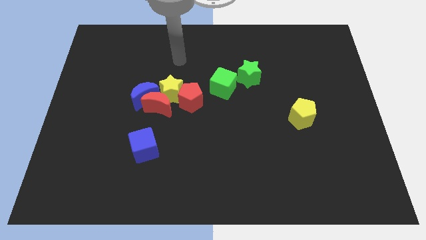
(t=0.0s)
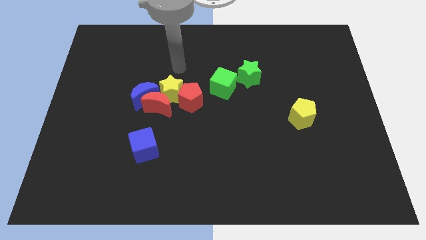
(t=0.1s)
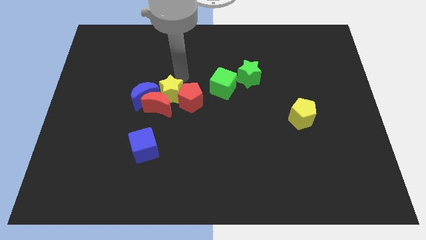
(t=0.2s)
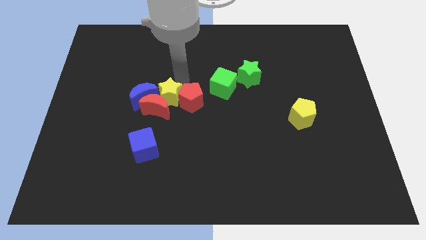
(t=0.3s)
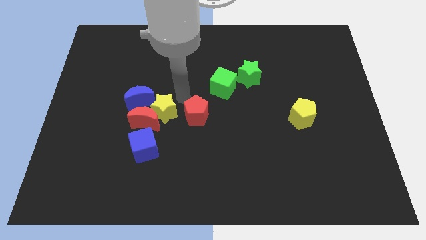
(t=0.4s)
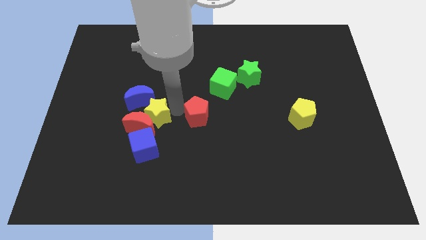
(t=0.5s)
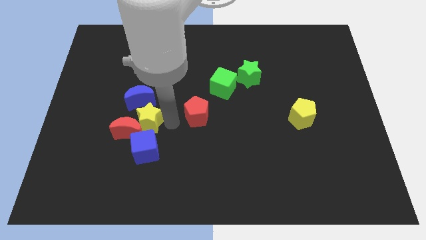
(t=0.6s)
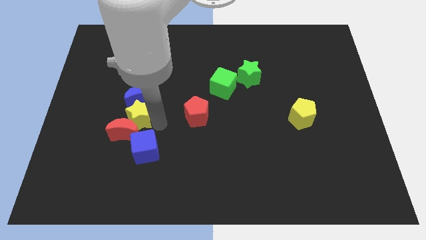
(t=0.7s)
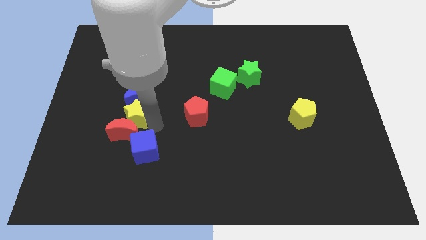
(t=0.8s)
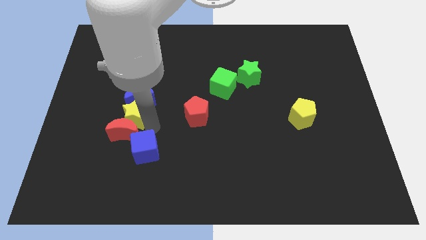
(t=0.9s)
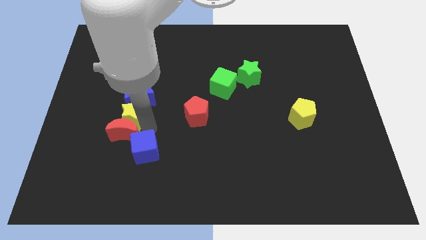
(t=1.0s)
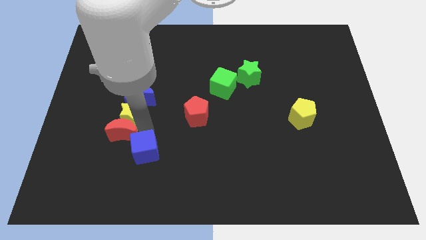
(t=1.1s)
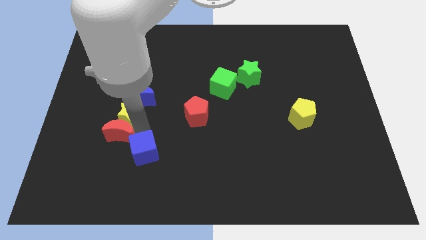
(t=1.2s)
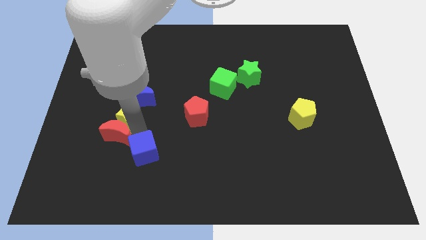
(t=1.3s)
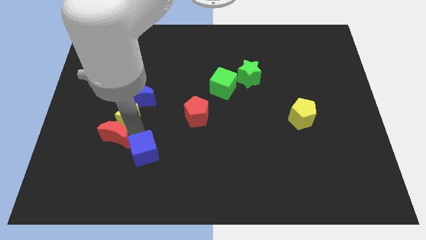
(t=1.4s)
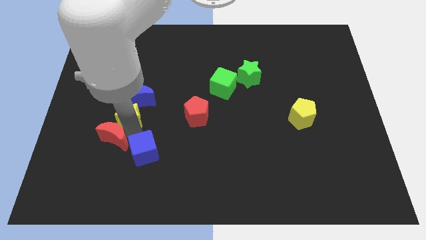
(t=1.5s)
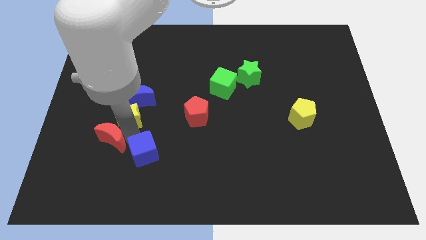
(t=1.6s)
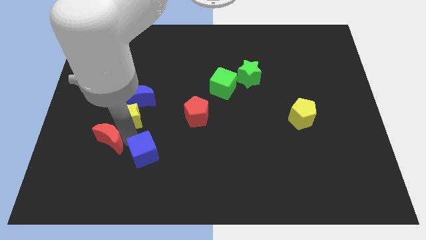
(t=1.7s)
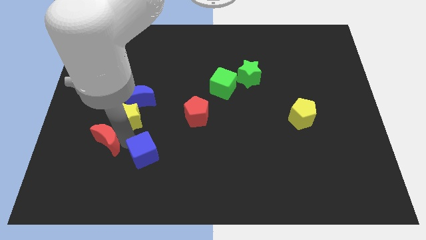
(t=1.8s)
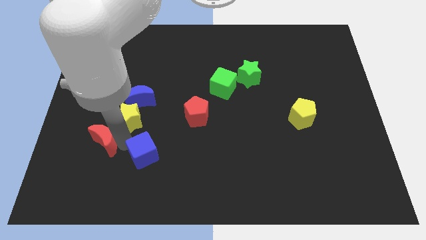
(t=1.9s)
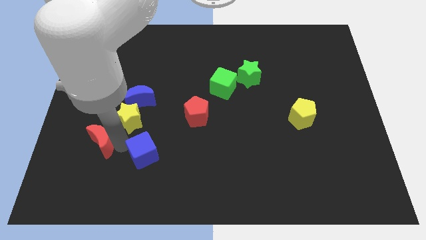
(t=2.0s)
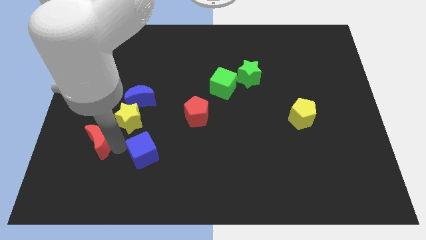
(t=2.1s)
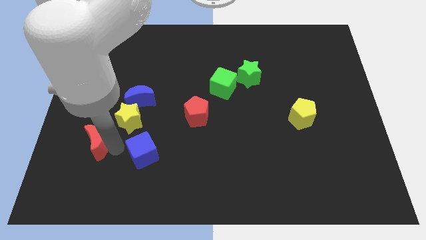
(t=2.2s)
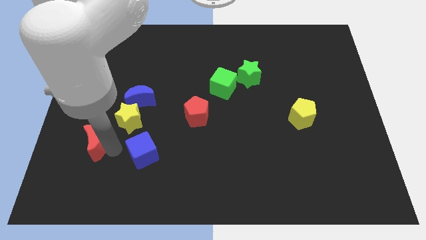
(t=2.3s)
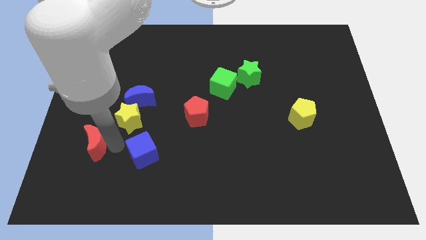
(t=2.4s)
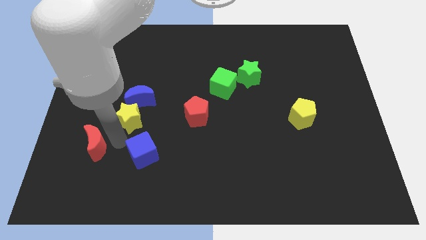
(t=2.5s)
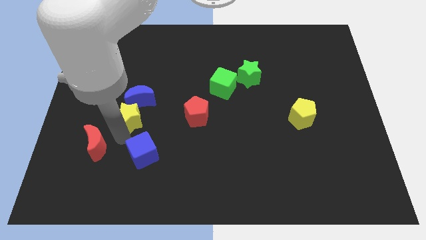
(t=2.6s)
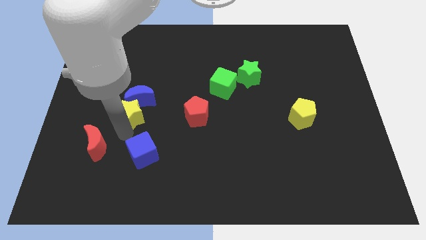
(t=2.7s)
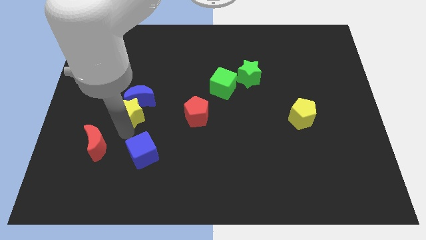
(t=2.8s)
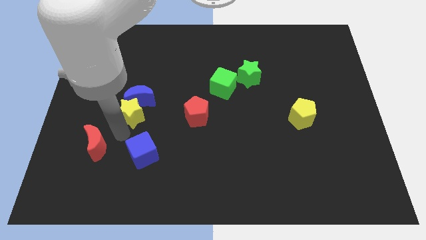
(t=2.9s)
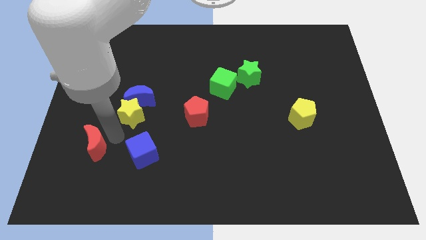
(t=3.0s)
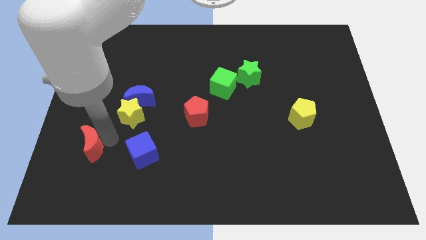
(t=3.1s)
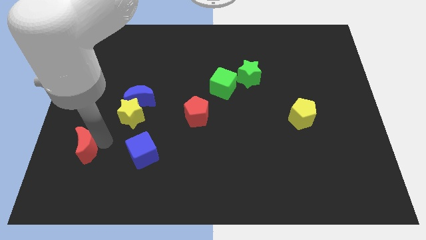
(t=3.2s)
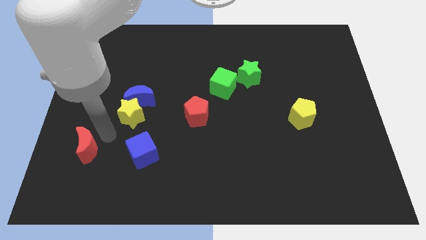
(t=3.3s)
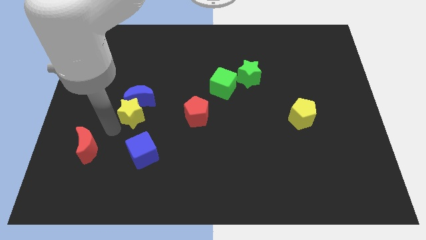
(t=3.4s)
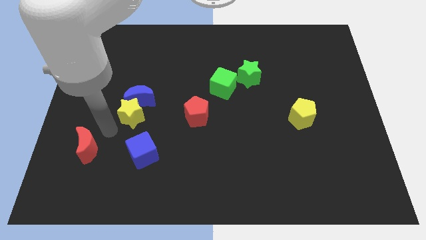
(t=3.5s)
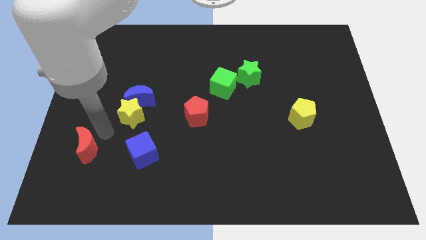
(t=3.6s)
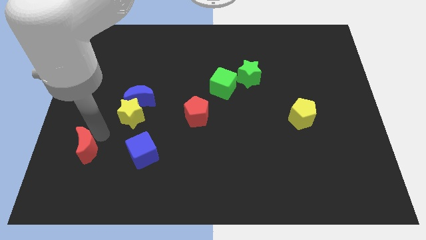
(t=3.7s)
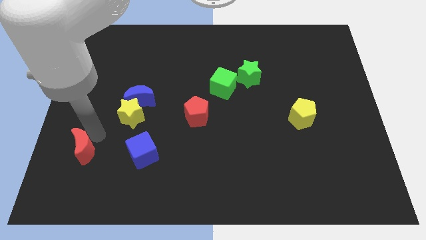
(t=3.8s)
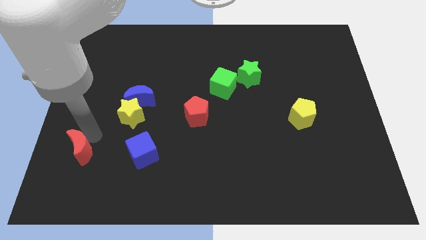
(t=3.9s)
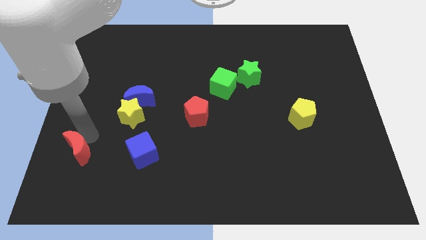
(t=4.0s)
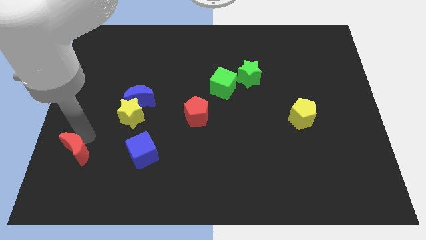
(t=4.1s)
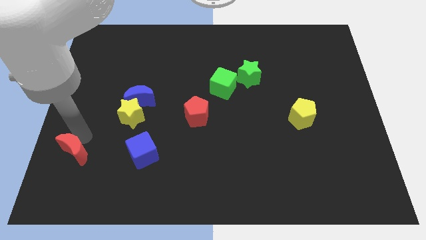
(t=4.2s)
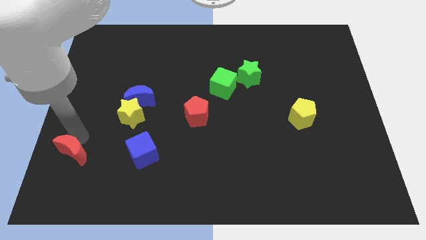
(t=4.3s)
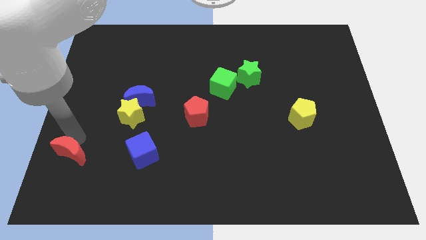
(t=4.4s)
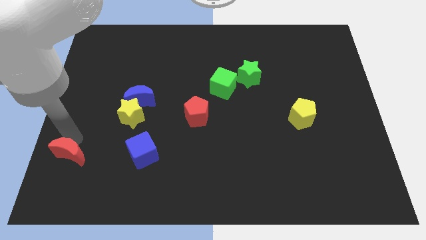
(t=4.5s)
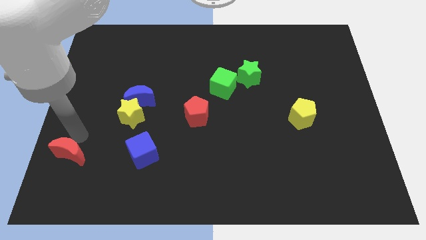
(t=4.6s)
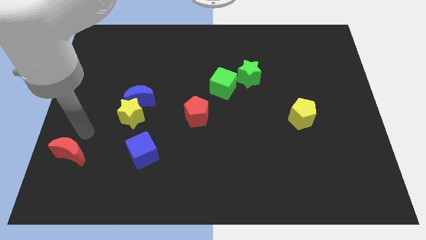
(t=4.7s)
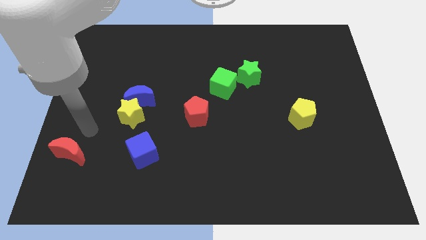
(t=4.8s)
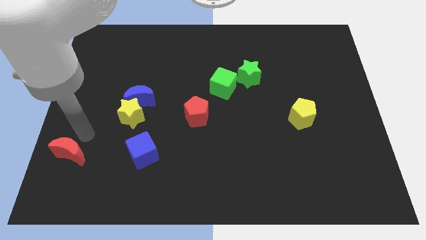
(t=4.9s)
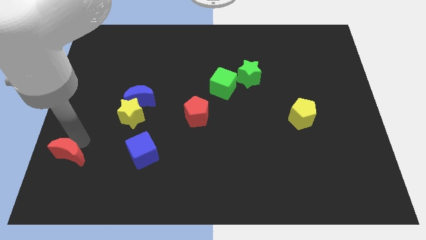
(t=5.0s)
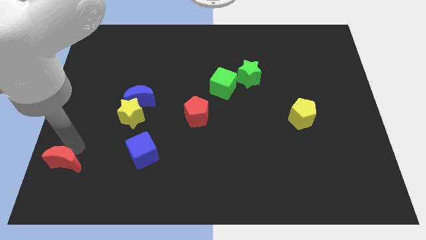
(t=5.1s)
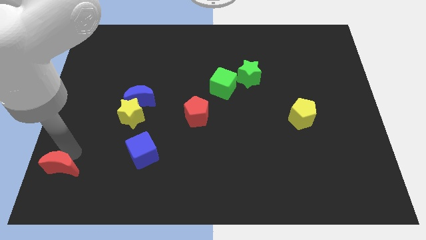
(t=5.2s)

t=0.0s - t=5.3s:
slide the red moon to the lower left corner

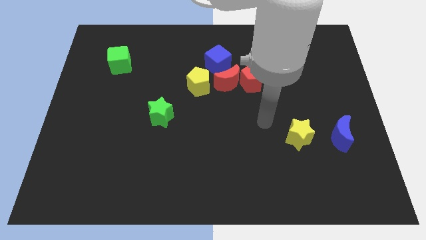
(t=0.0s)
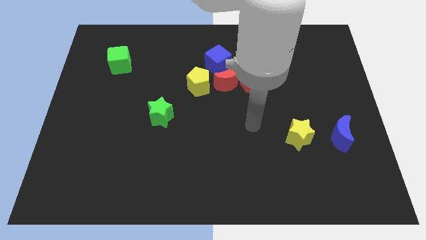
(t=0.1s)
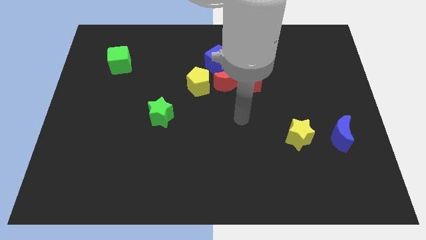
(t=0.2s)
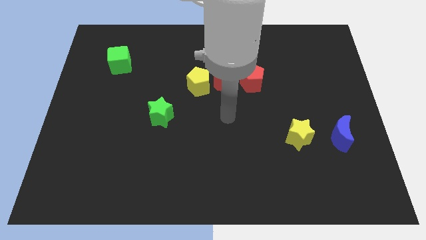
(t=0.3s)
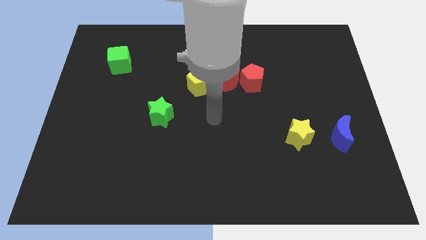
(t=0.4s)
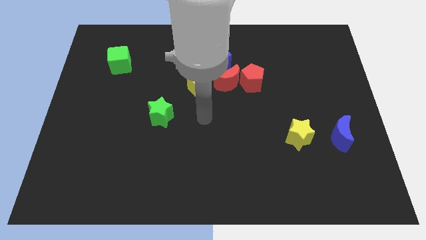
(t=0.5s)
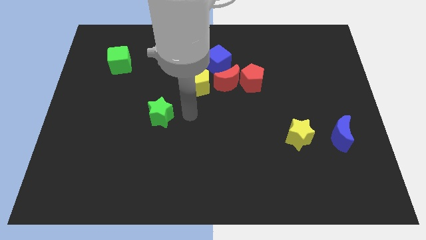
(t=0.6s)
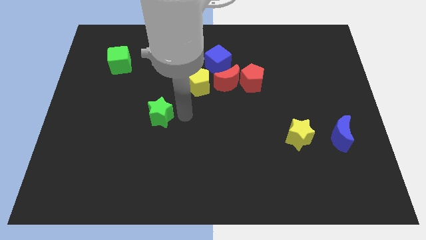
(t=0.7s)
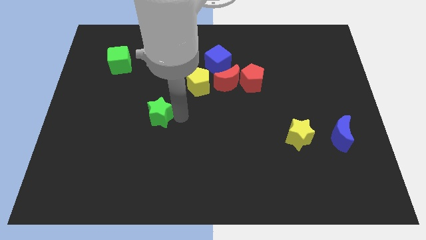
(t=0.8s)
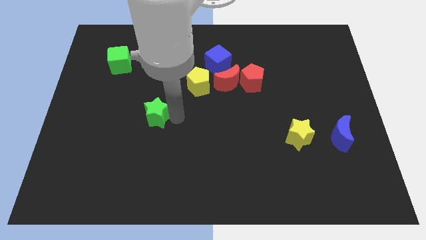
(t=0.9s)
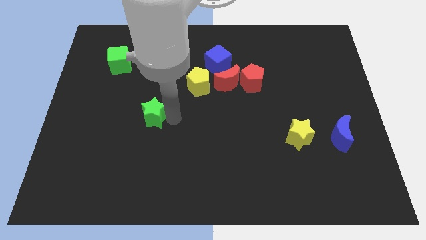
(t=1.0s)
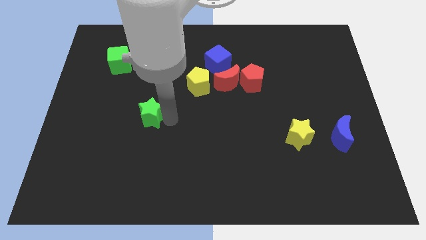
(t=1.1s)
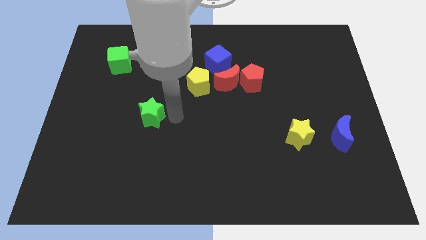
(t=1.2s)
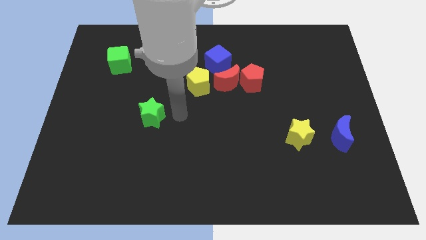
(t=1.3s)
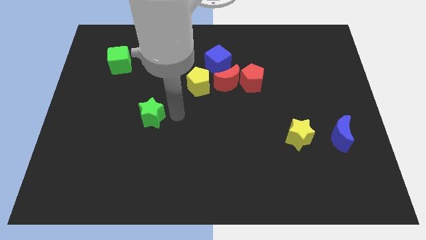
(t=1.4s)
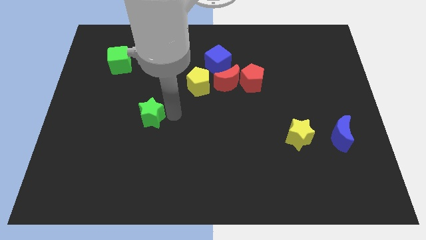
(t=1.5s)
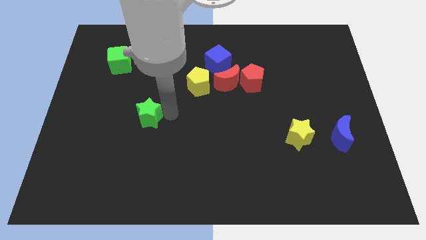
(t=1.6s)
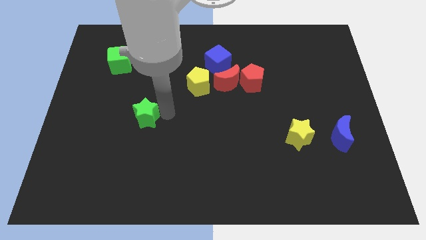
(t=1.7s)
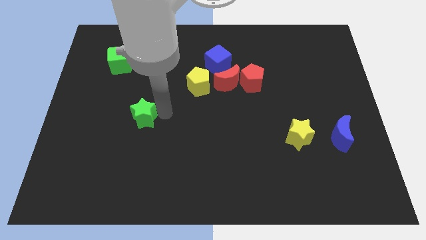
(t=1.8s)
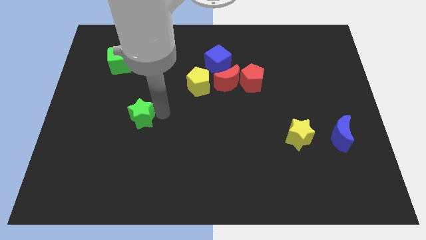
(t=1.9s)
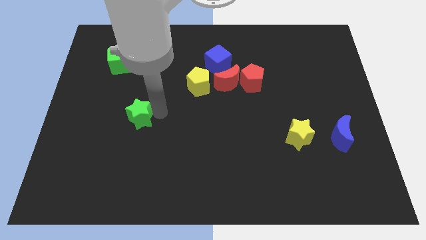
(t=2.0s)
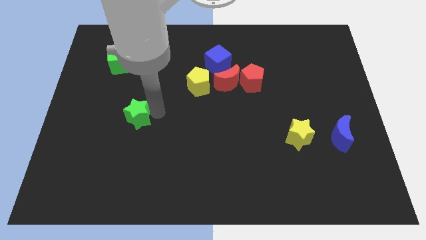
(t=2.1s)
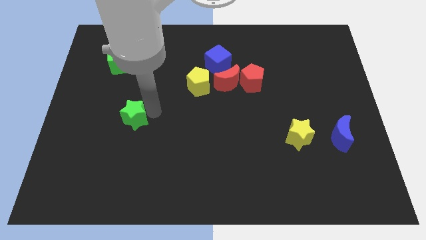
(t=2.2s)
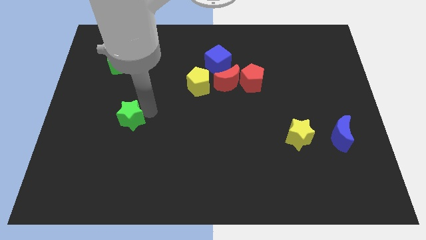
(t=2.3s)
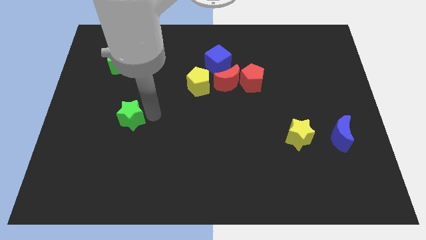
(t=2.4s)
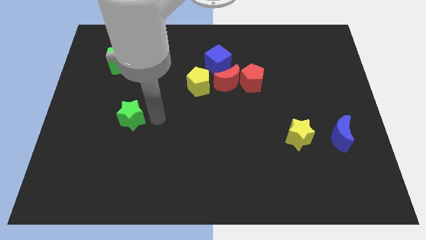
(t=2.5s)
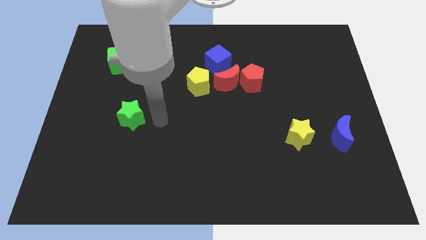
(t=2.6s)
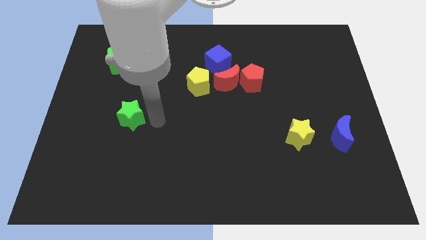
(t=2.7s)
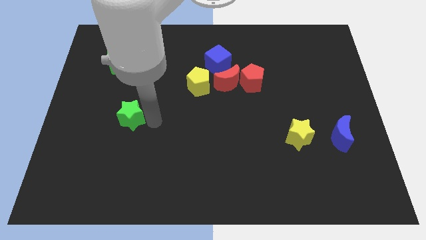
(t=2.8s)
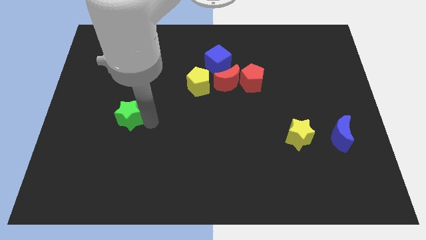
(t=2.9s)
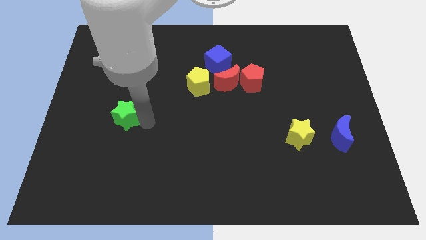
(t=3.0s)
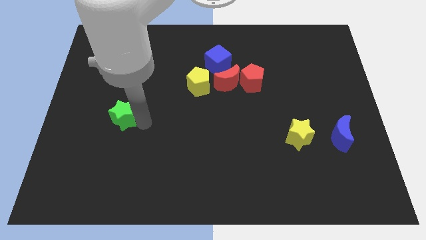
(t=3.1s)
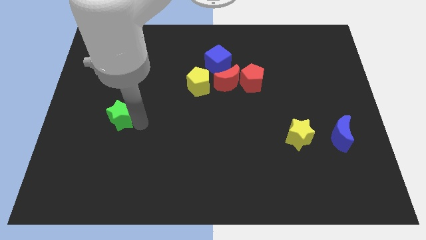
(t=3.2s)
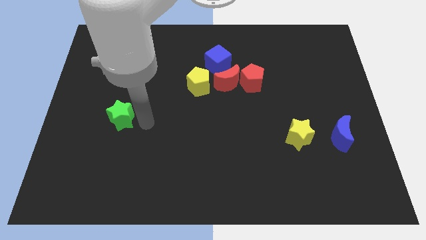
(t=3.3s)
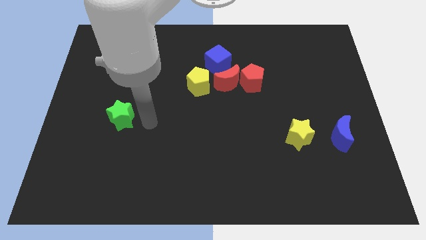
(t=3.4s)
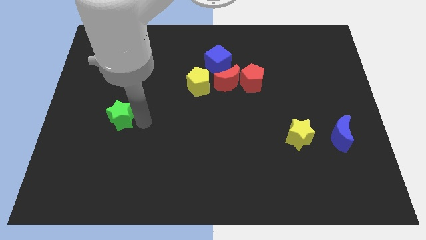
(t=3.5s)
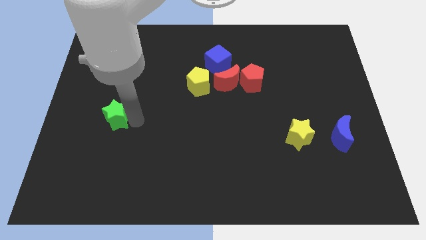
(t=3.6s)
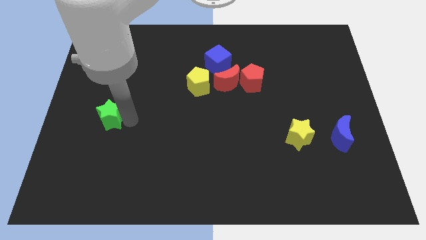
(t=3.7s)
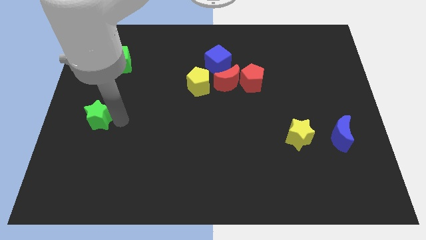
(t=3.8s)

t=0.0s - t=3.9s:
move the green star to the left side
